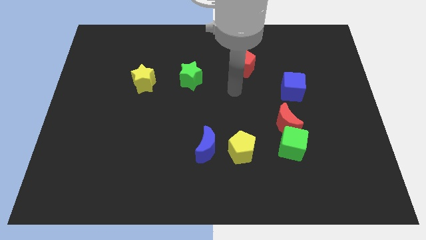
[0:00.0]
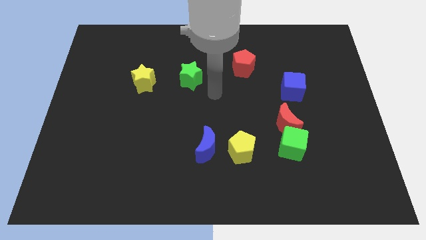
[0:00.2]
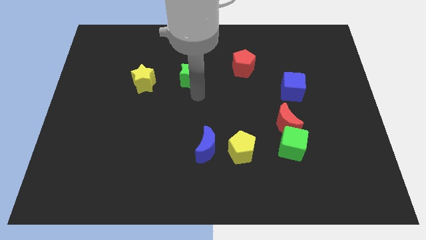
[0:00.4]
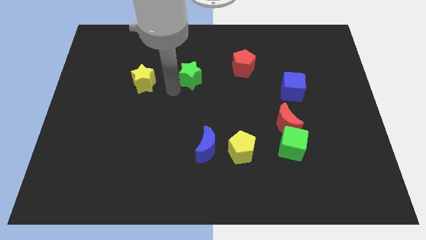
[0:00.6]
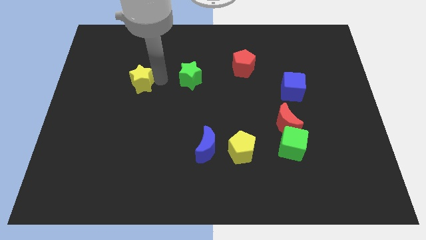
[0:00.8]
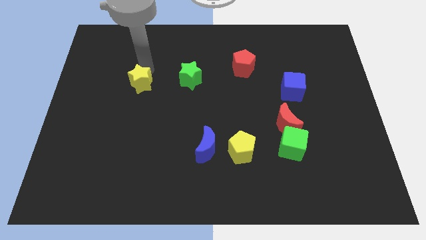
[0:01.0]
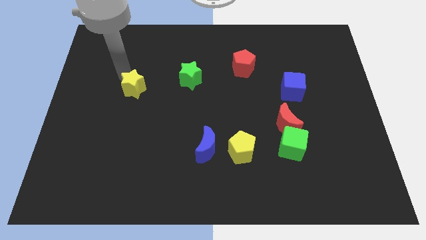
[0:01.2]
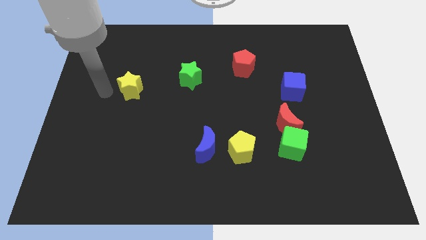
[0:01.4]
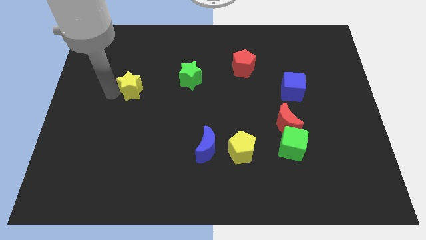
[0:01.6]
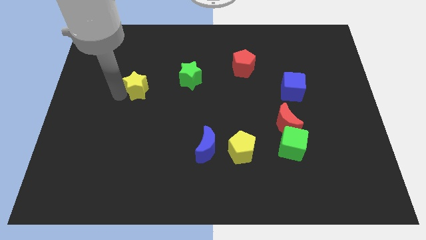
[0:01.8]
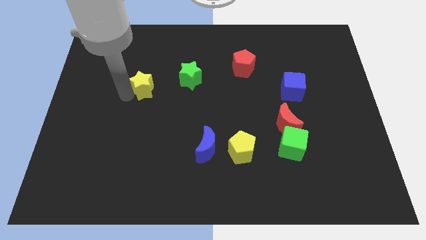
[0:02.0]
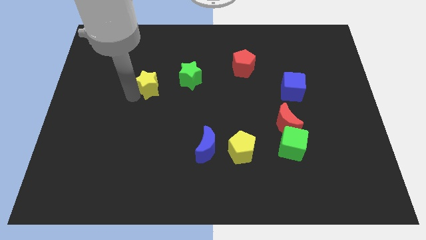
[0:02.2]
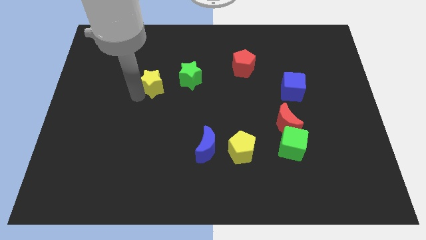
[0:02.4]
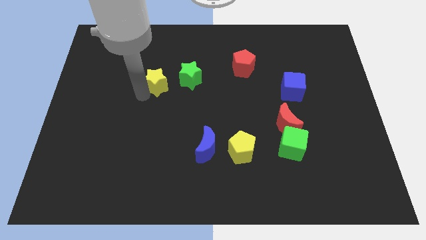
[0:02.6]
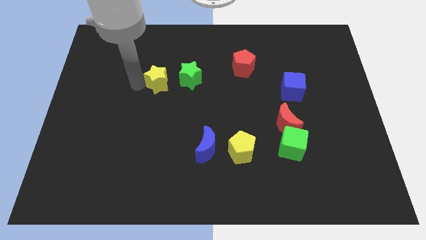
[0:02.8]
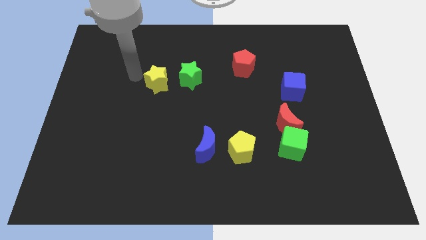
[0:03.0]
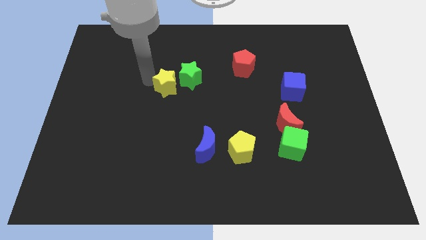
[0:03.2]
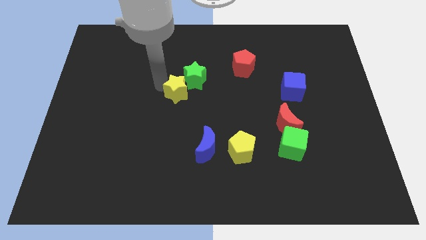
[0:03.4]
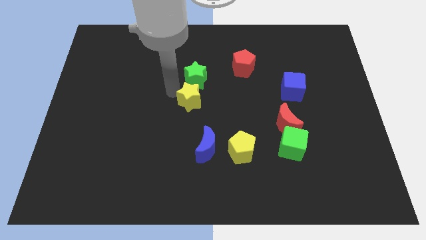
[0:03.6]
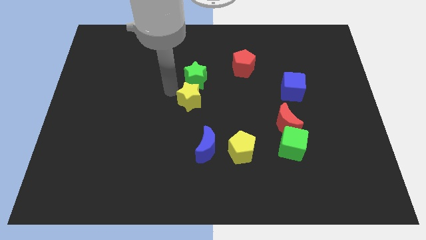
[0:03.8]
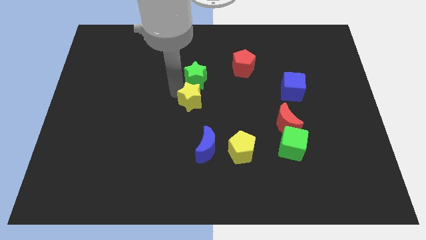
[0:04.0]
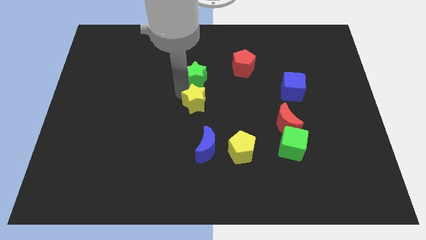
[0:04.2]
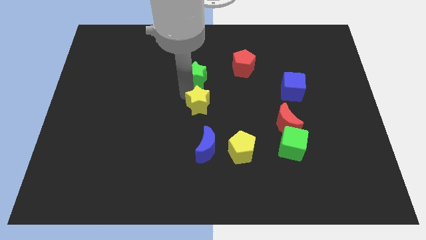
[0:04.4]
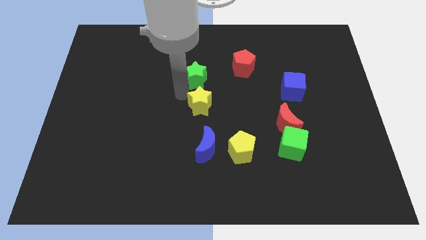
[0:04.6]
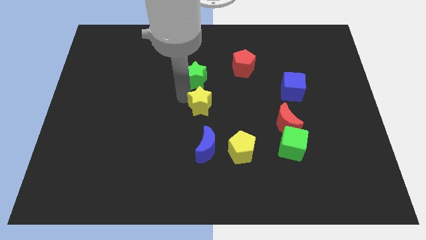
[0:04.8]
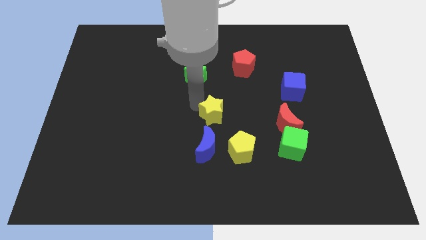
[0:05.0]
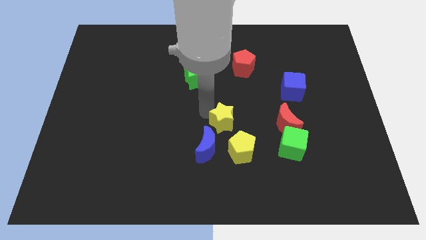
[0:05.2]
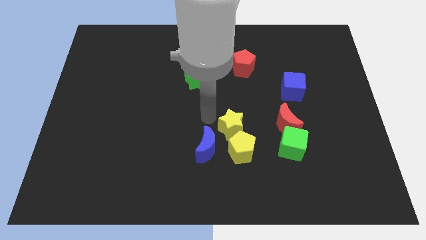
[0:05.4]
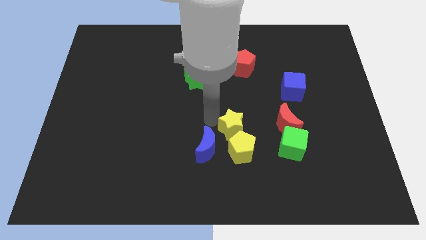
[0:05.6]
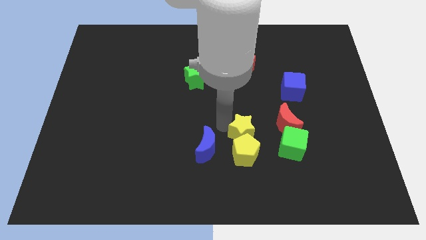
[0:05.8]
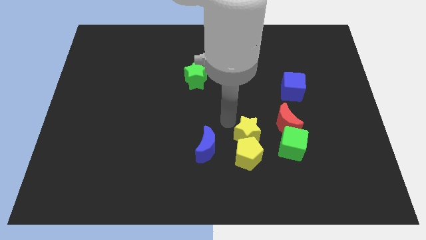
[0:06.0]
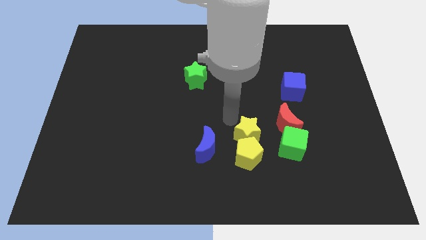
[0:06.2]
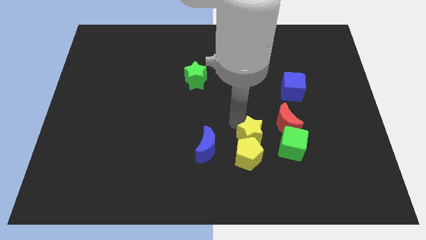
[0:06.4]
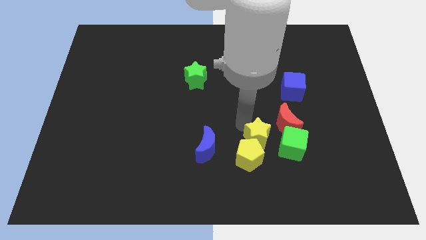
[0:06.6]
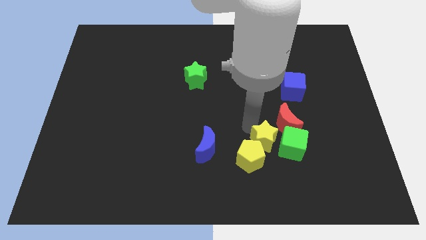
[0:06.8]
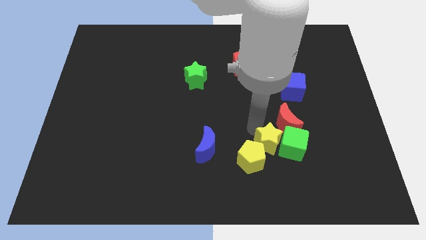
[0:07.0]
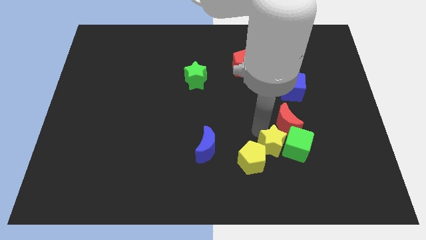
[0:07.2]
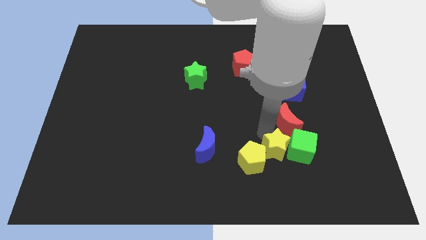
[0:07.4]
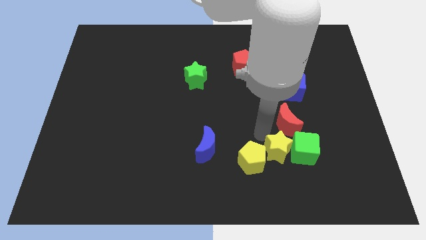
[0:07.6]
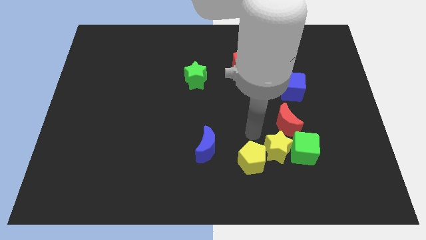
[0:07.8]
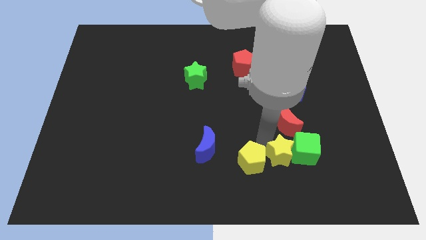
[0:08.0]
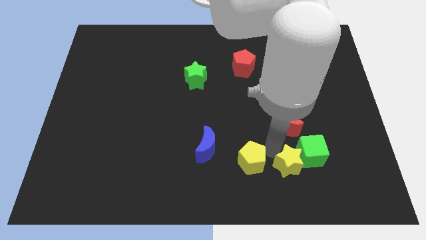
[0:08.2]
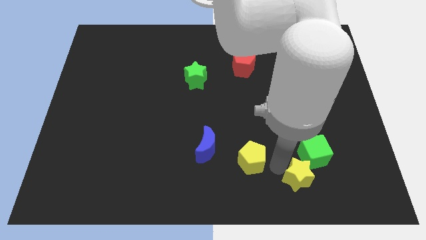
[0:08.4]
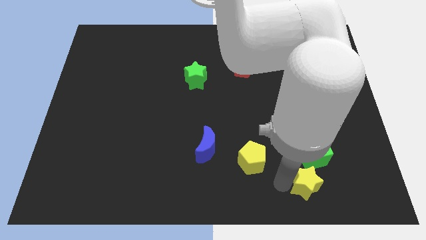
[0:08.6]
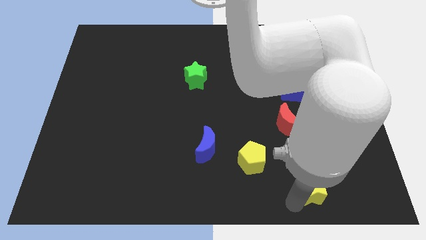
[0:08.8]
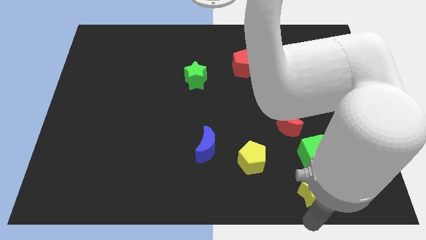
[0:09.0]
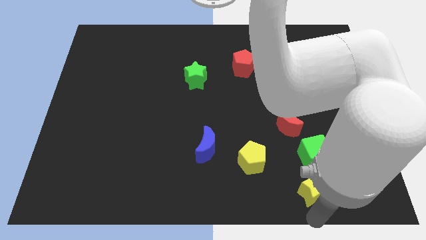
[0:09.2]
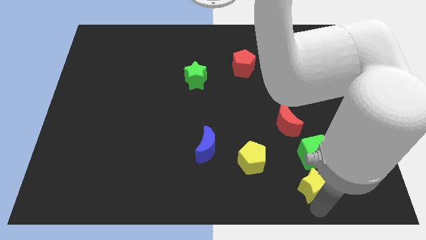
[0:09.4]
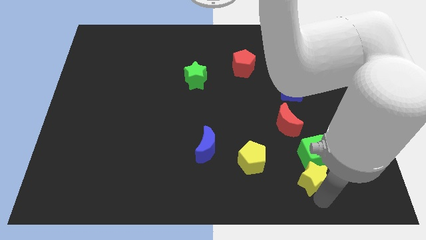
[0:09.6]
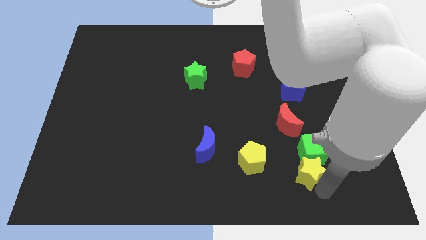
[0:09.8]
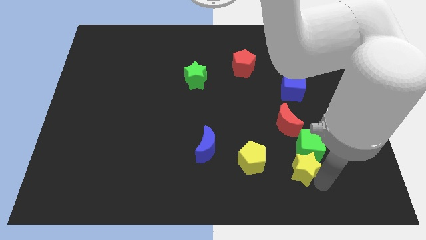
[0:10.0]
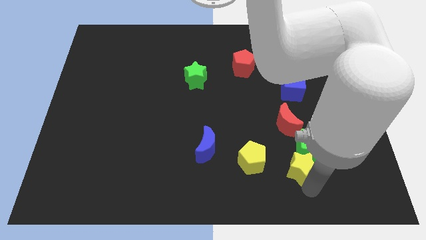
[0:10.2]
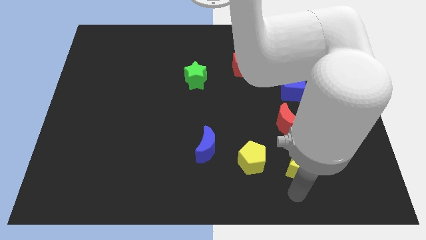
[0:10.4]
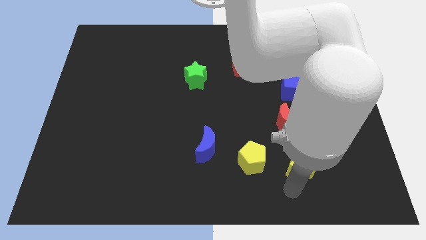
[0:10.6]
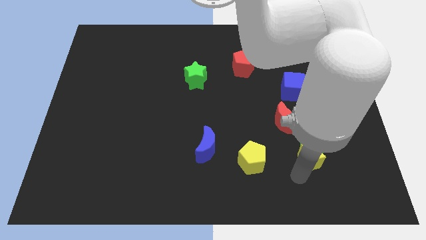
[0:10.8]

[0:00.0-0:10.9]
push the yellow star to the bottom right side of the red moon

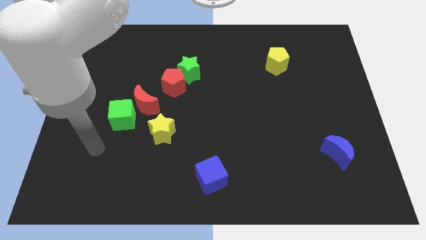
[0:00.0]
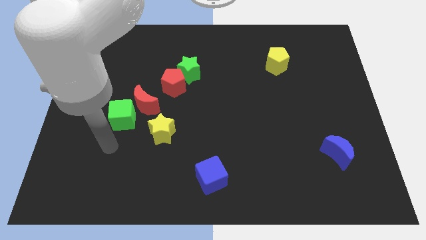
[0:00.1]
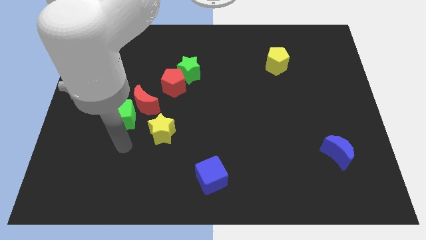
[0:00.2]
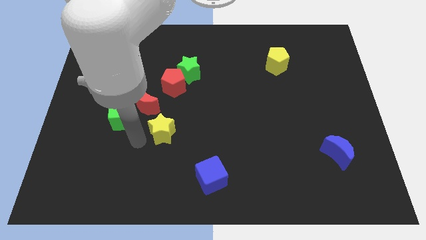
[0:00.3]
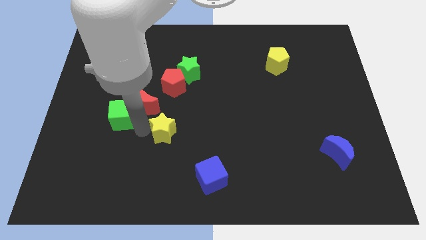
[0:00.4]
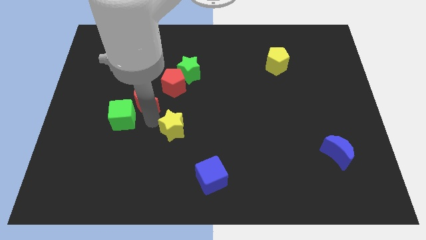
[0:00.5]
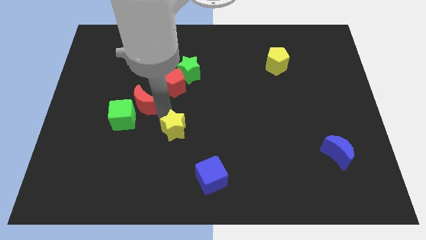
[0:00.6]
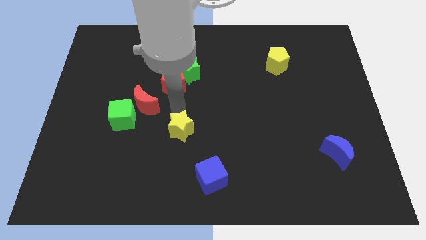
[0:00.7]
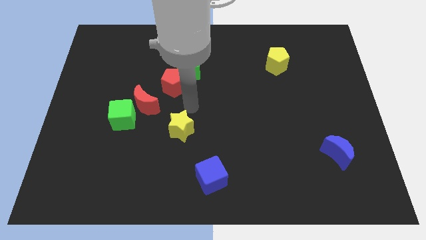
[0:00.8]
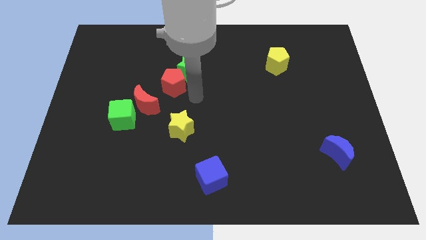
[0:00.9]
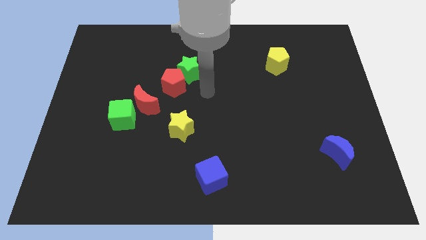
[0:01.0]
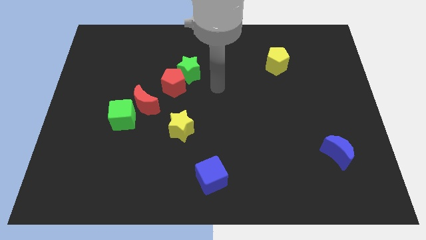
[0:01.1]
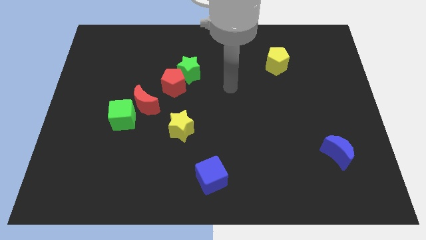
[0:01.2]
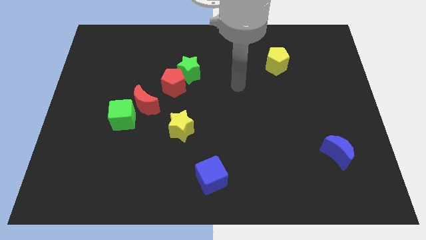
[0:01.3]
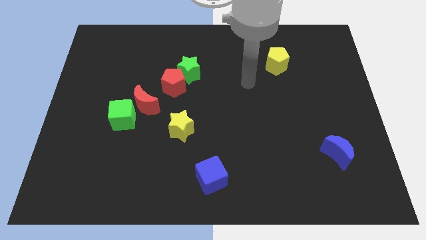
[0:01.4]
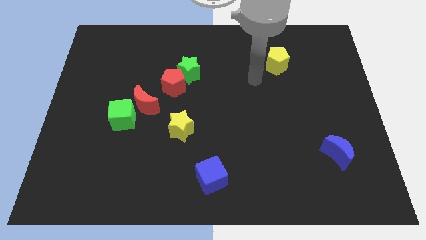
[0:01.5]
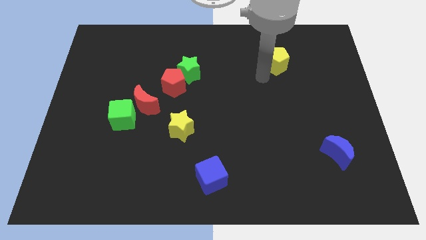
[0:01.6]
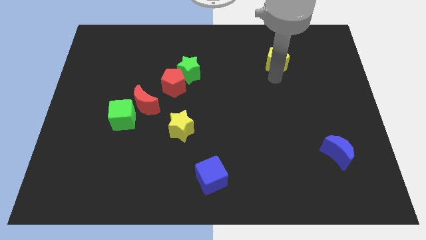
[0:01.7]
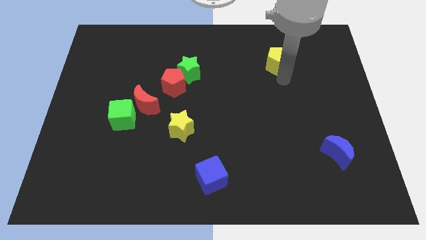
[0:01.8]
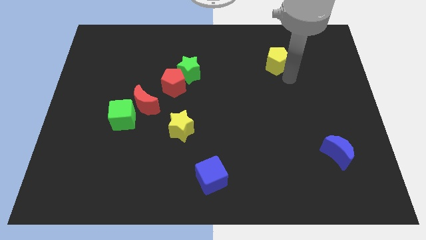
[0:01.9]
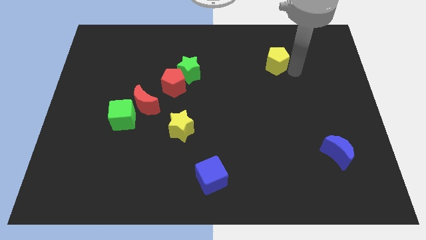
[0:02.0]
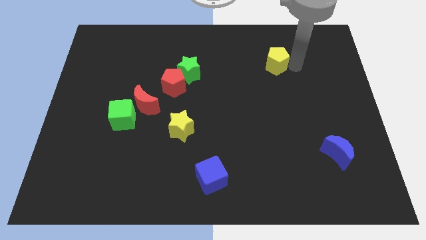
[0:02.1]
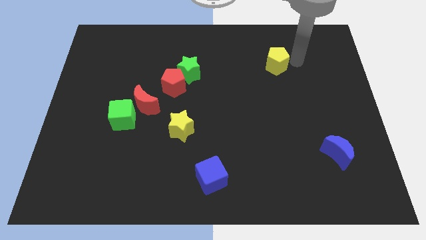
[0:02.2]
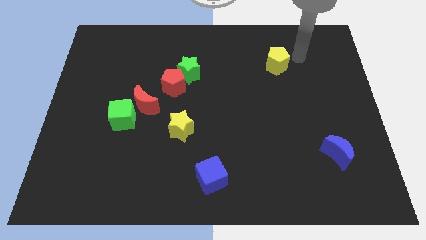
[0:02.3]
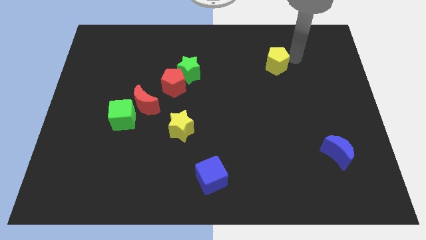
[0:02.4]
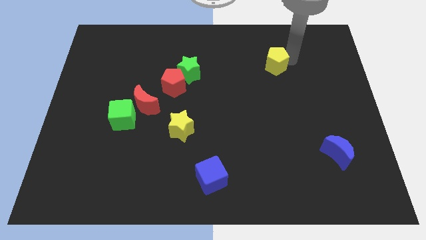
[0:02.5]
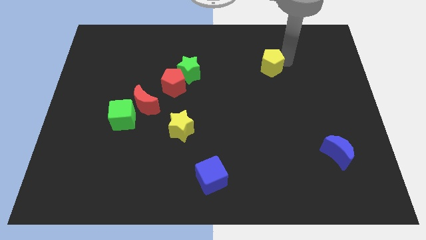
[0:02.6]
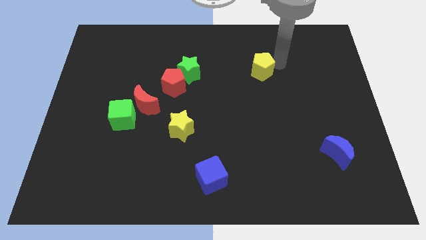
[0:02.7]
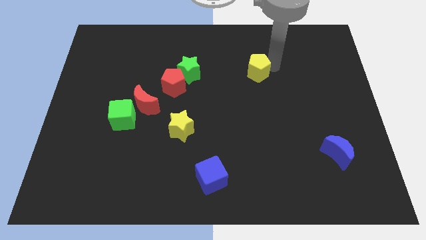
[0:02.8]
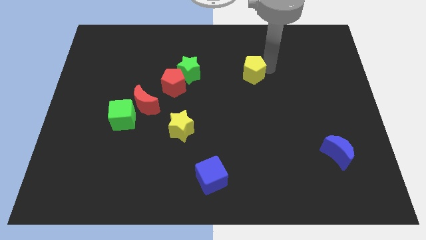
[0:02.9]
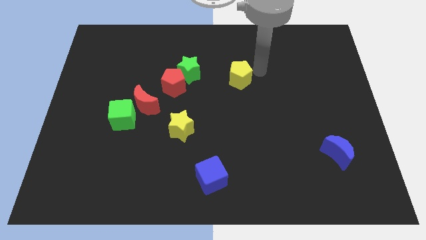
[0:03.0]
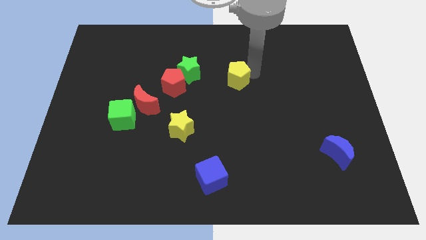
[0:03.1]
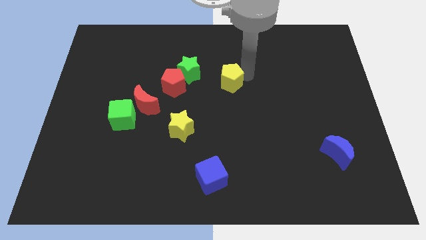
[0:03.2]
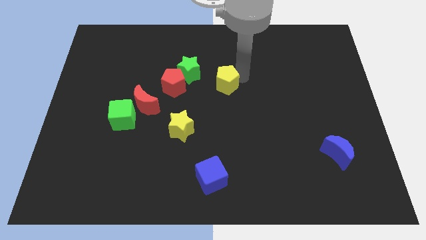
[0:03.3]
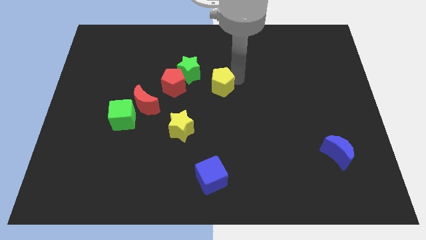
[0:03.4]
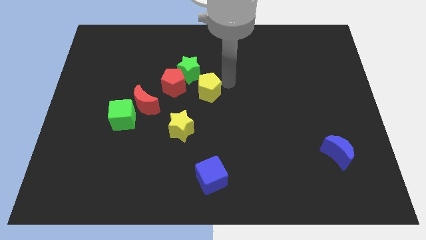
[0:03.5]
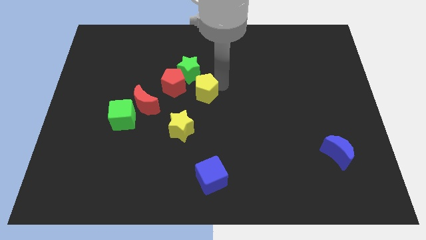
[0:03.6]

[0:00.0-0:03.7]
move the yellow pentagon below the green star
